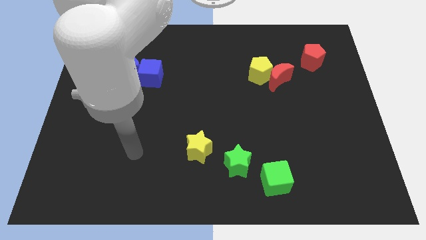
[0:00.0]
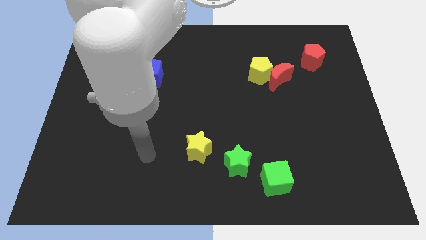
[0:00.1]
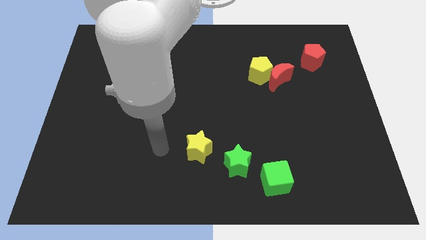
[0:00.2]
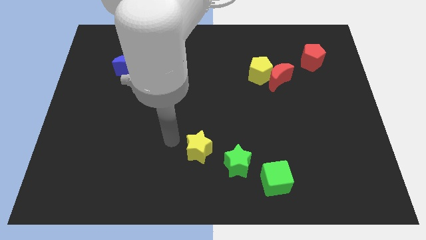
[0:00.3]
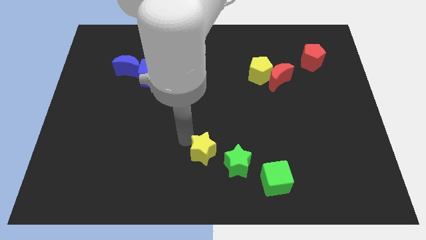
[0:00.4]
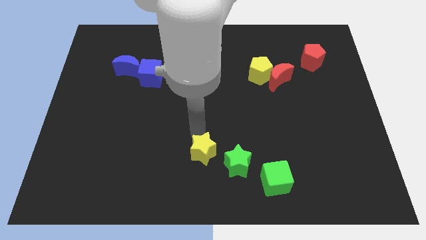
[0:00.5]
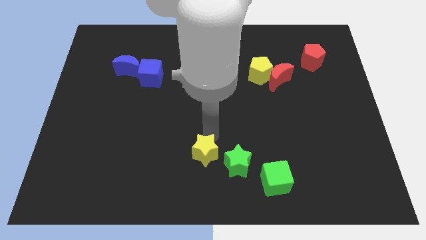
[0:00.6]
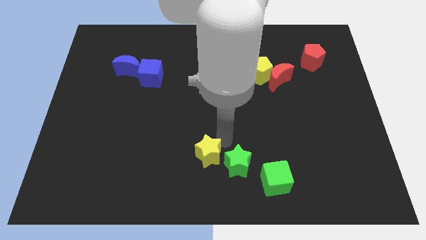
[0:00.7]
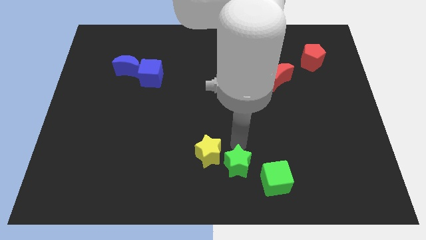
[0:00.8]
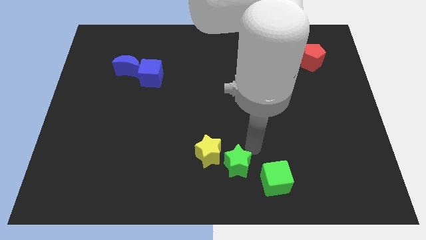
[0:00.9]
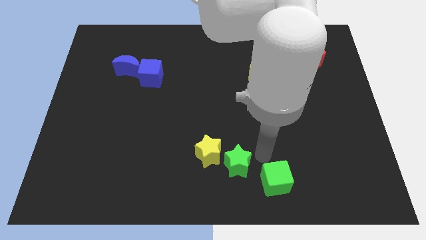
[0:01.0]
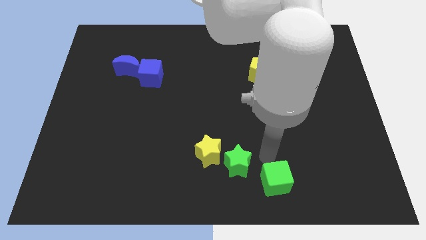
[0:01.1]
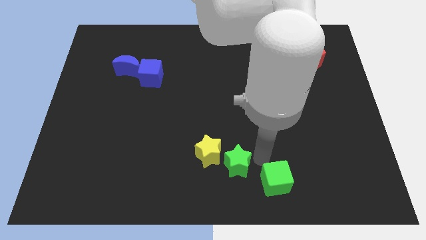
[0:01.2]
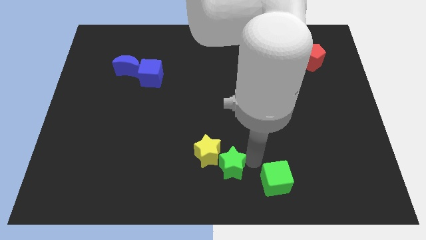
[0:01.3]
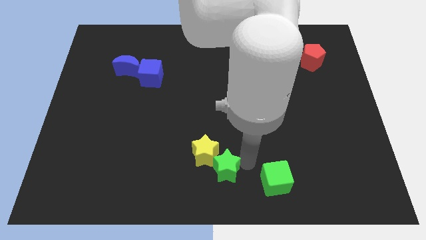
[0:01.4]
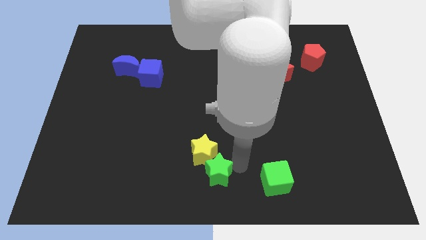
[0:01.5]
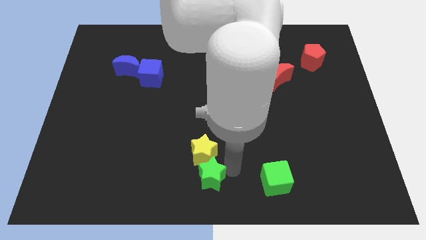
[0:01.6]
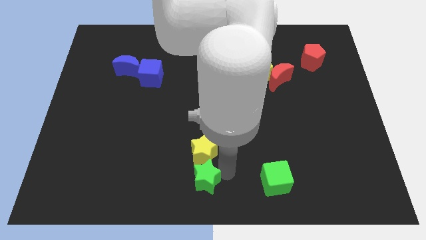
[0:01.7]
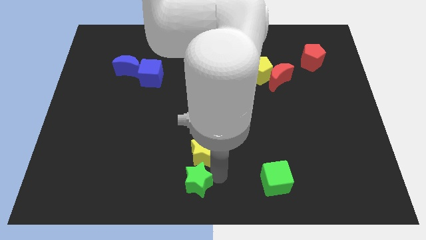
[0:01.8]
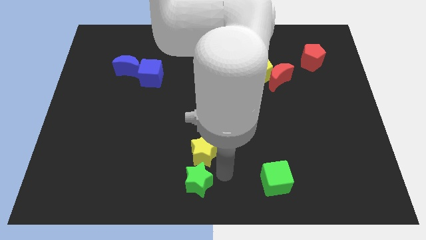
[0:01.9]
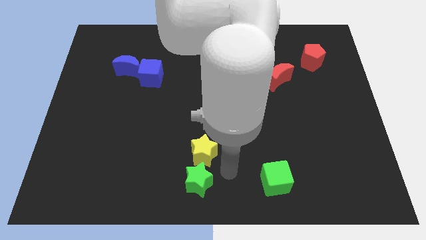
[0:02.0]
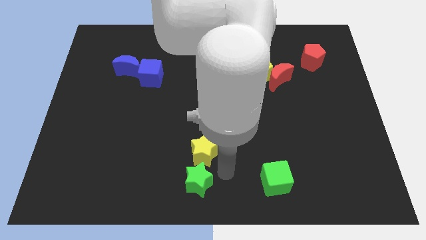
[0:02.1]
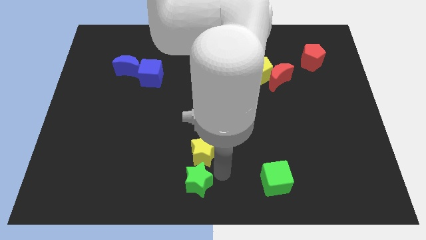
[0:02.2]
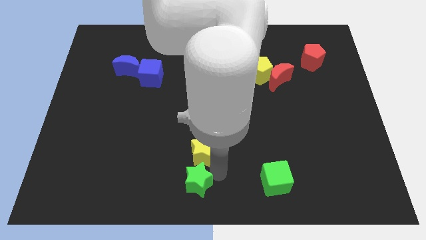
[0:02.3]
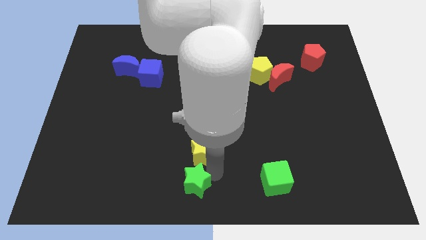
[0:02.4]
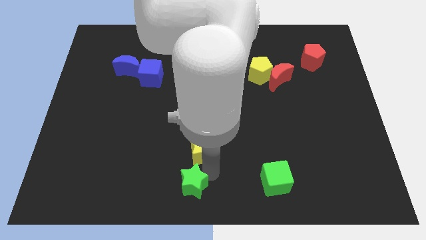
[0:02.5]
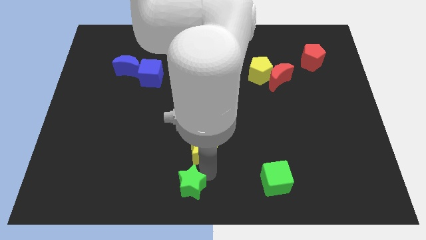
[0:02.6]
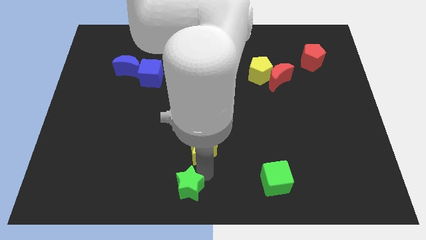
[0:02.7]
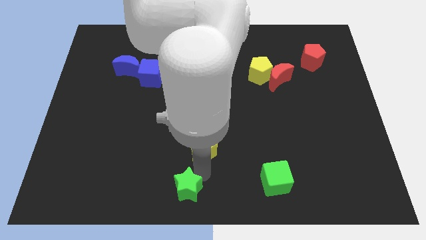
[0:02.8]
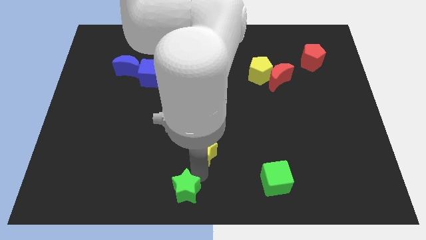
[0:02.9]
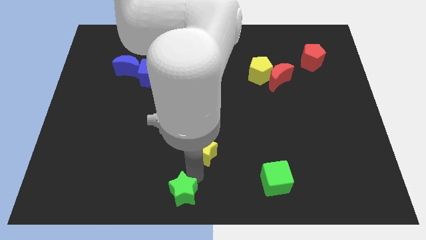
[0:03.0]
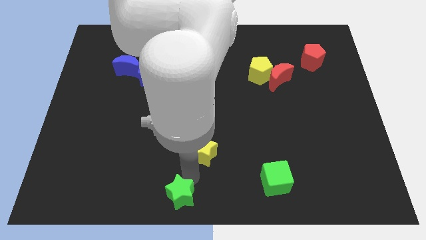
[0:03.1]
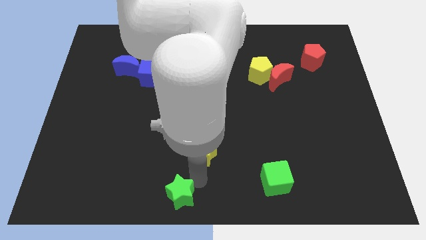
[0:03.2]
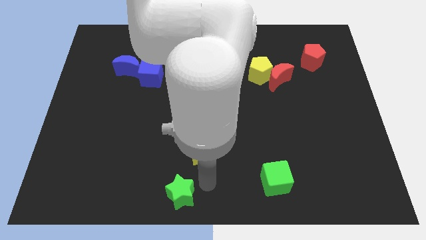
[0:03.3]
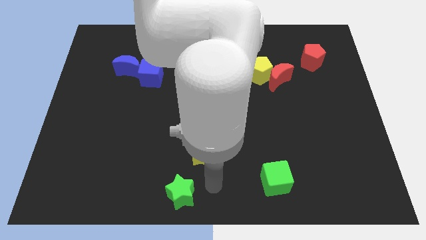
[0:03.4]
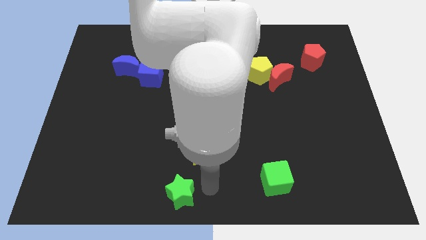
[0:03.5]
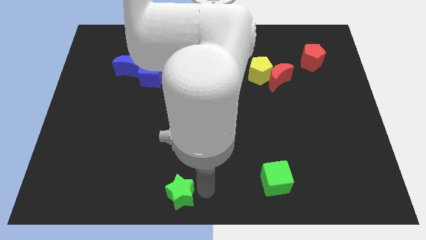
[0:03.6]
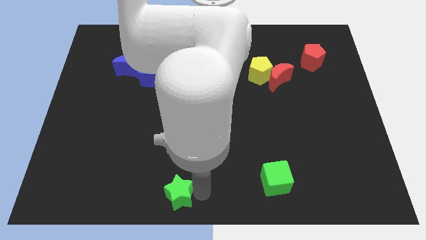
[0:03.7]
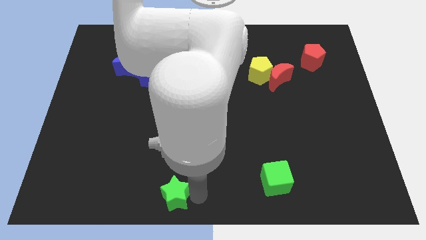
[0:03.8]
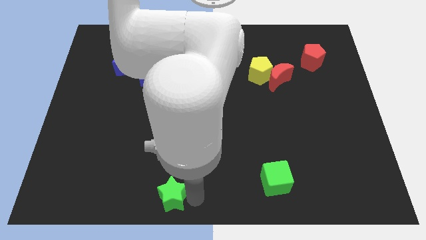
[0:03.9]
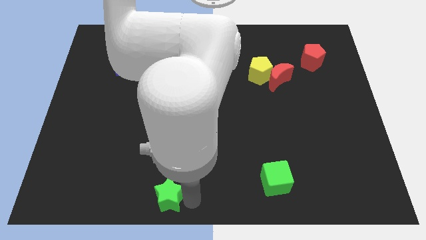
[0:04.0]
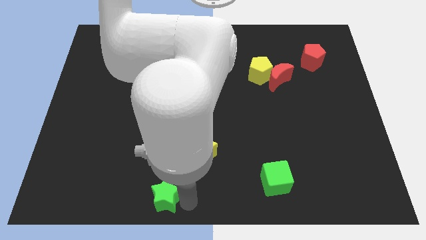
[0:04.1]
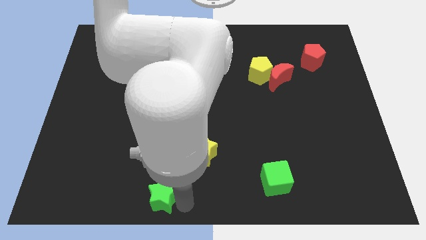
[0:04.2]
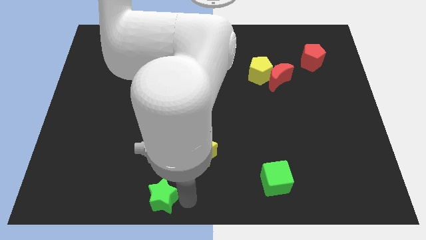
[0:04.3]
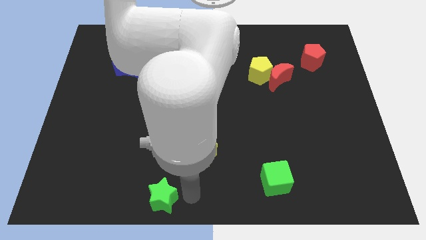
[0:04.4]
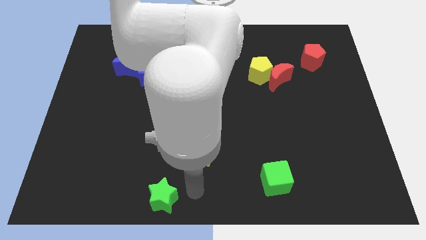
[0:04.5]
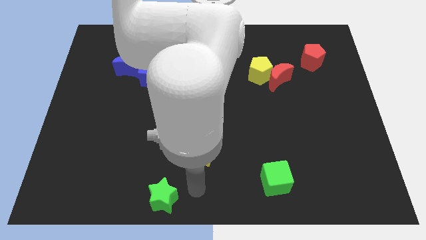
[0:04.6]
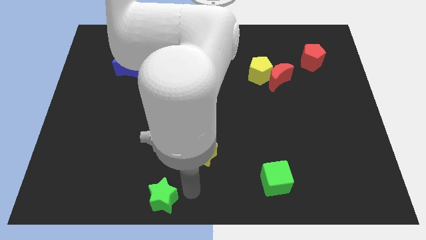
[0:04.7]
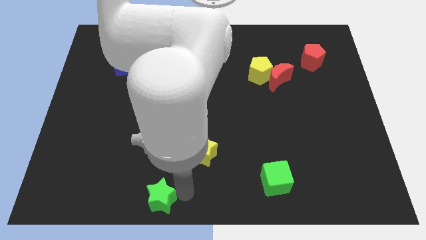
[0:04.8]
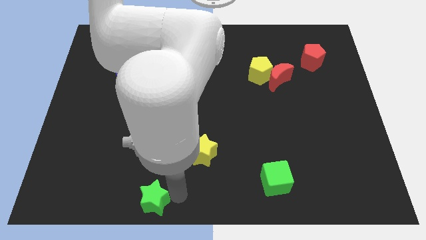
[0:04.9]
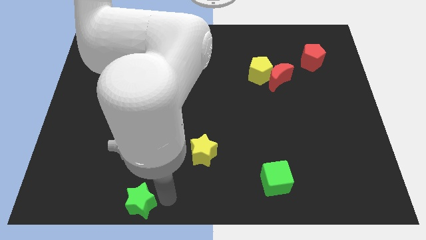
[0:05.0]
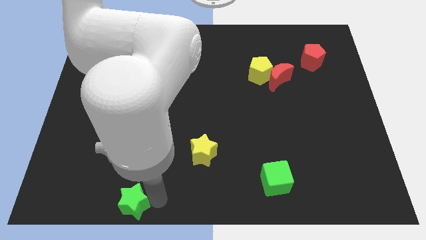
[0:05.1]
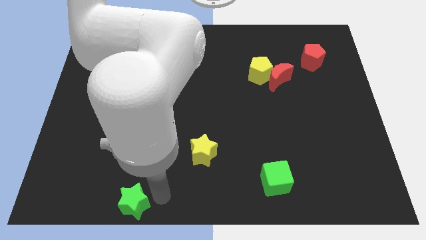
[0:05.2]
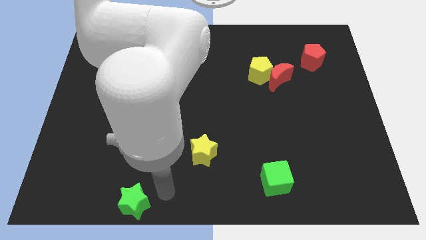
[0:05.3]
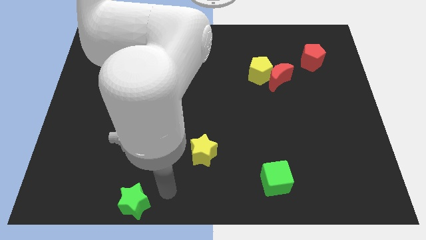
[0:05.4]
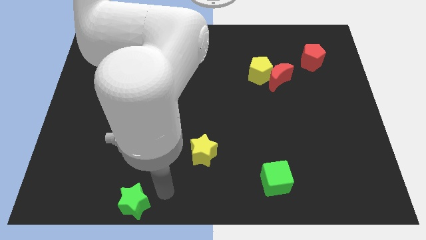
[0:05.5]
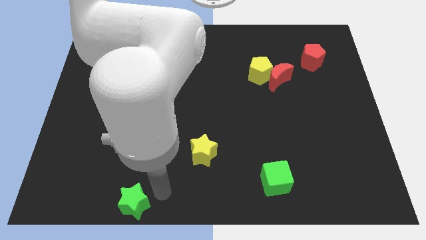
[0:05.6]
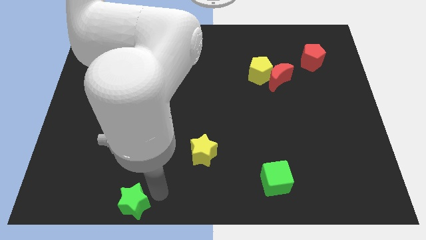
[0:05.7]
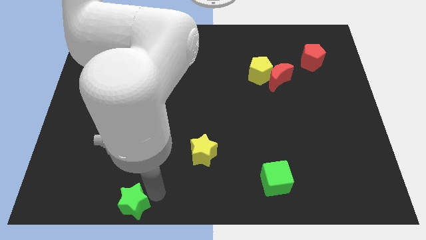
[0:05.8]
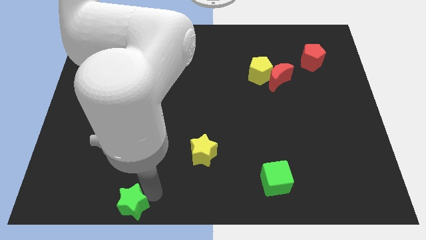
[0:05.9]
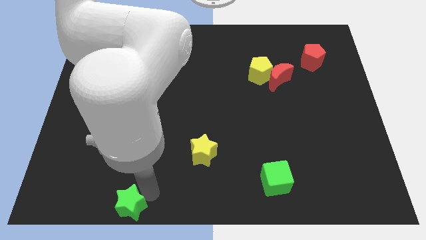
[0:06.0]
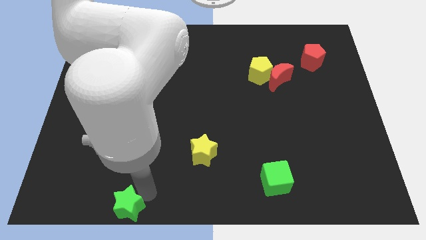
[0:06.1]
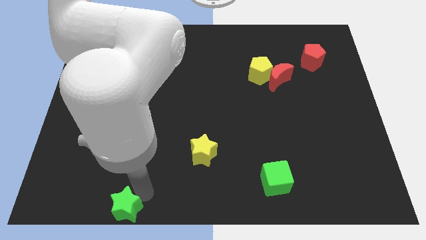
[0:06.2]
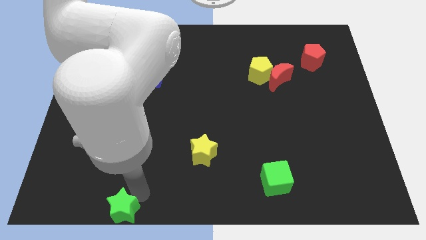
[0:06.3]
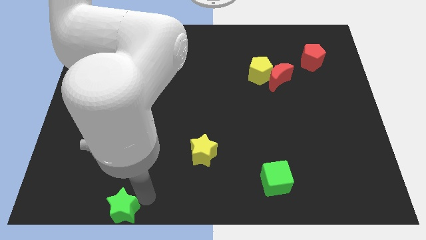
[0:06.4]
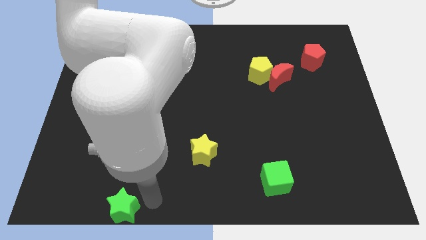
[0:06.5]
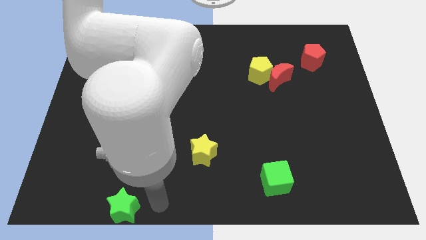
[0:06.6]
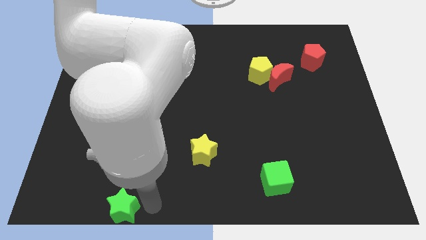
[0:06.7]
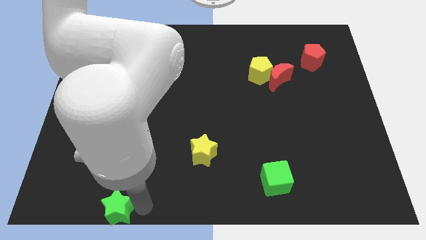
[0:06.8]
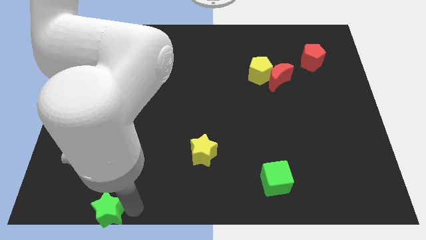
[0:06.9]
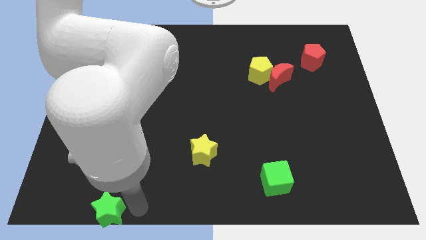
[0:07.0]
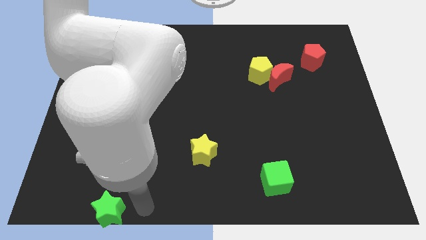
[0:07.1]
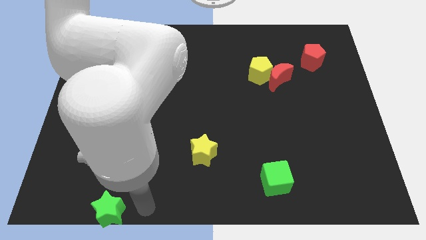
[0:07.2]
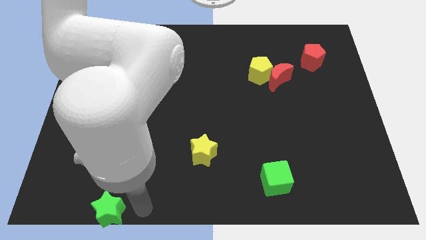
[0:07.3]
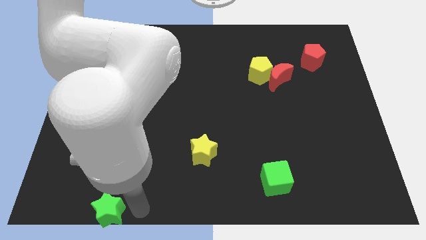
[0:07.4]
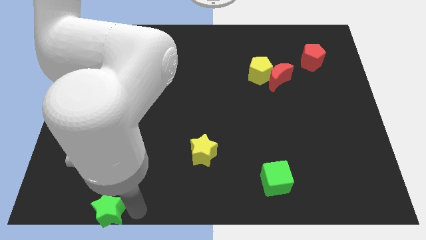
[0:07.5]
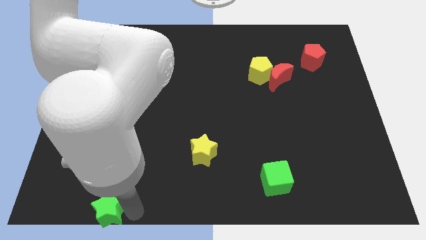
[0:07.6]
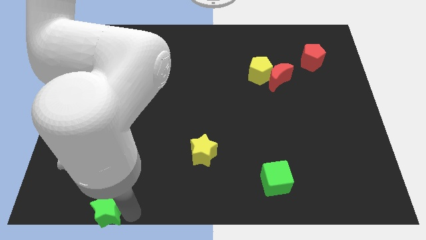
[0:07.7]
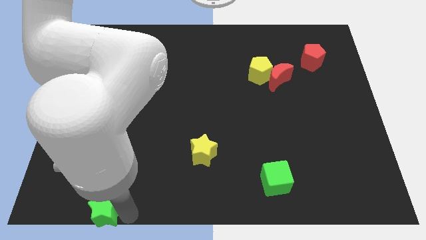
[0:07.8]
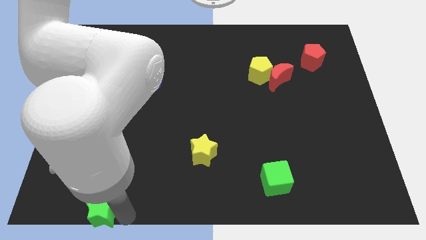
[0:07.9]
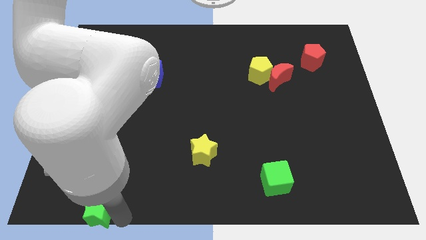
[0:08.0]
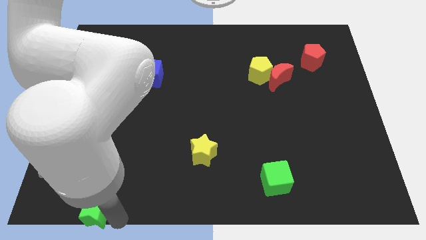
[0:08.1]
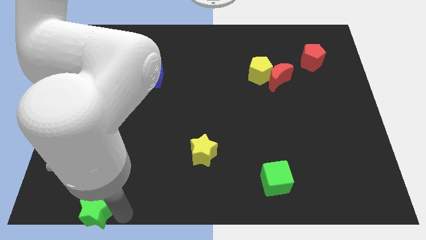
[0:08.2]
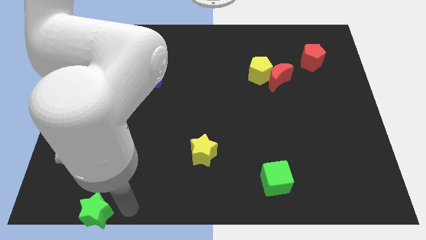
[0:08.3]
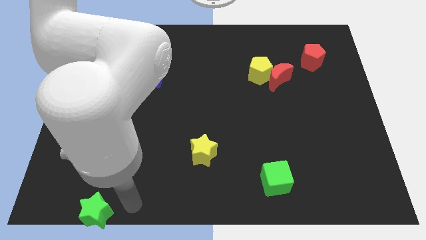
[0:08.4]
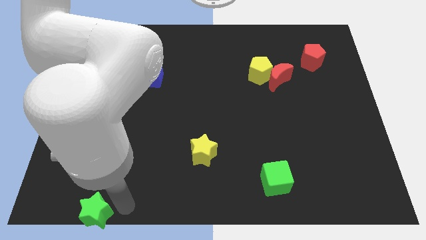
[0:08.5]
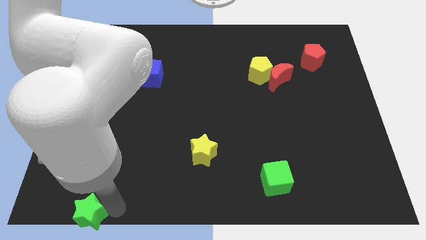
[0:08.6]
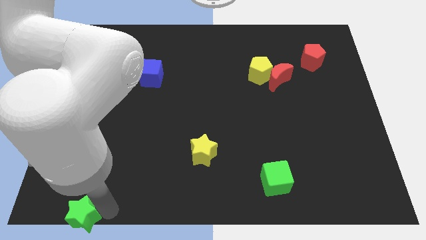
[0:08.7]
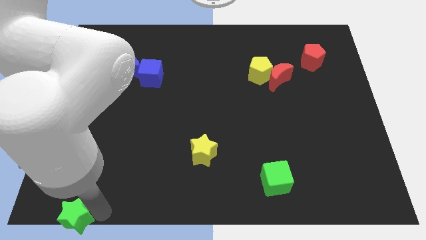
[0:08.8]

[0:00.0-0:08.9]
put the green star to the bottom left
